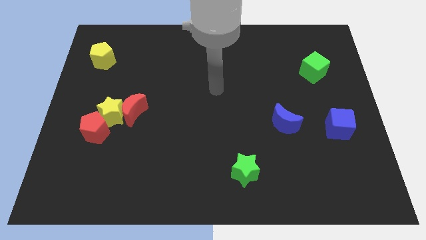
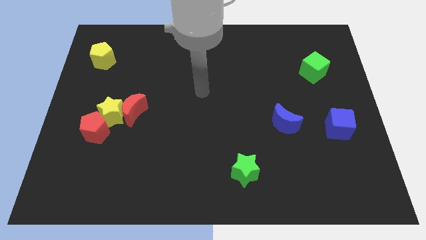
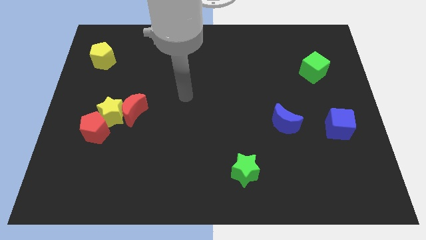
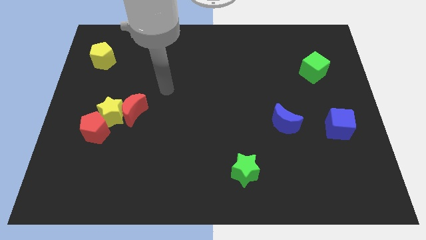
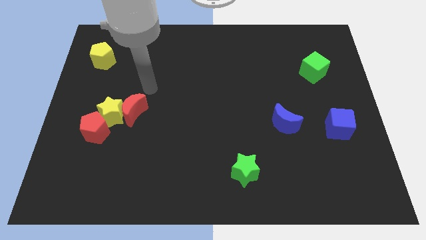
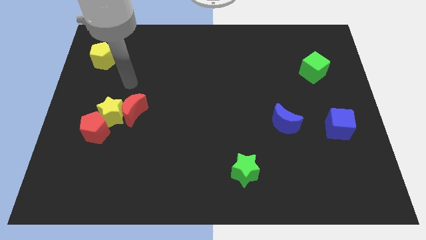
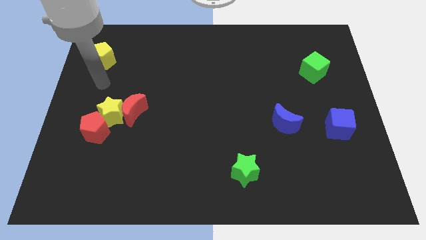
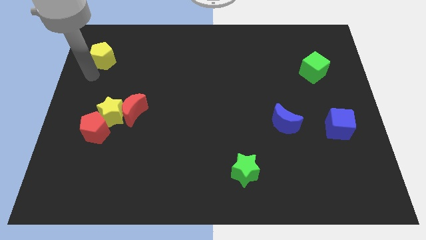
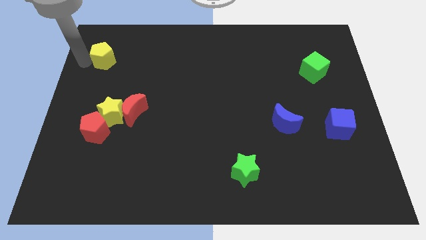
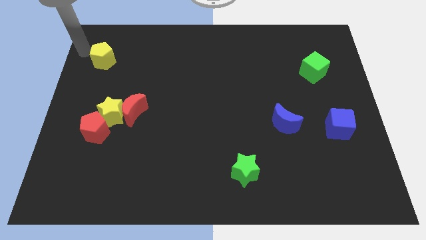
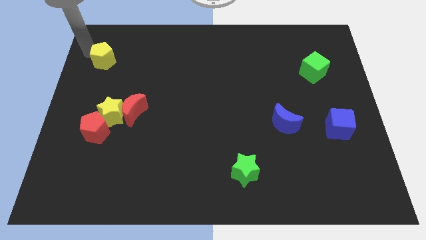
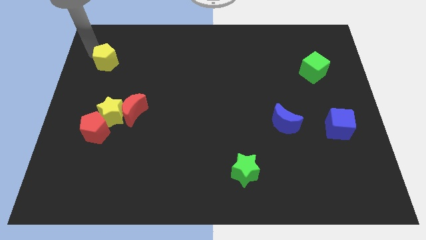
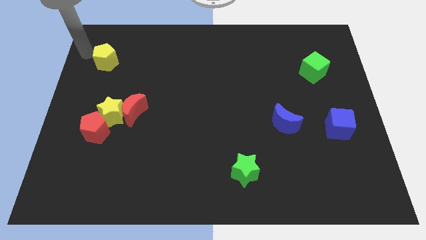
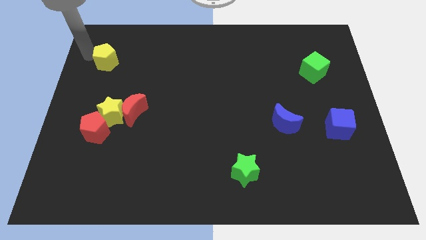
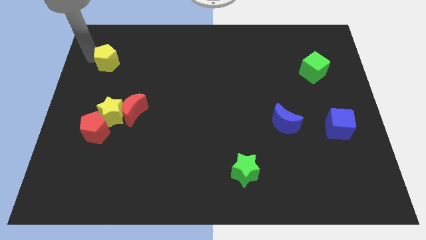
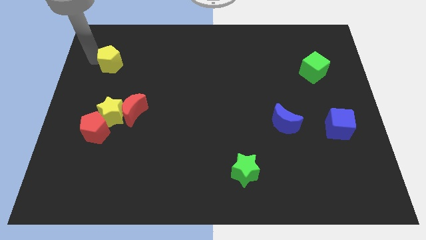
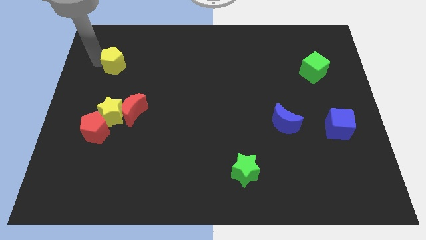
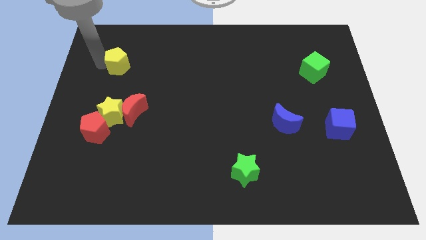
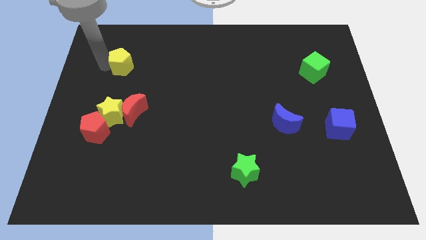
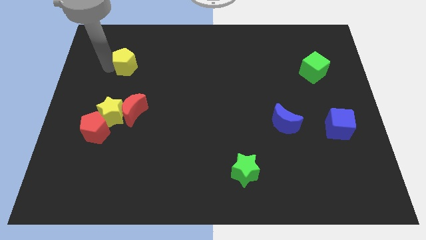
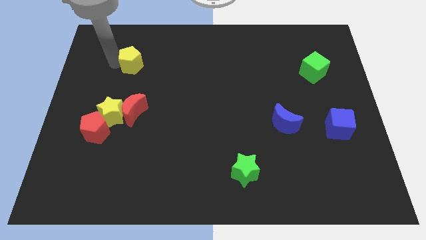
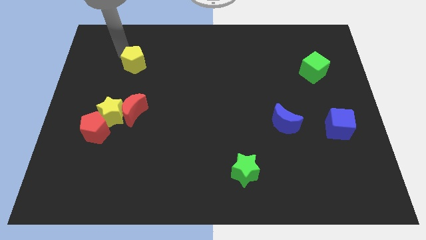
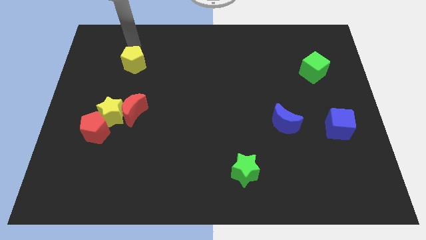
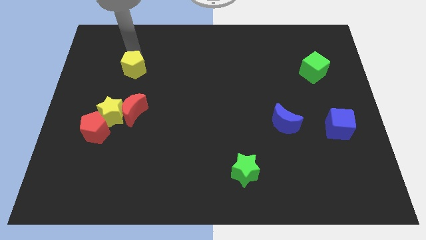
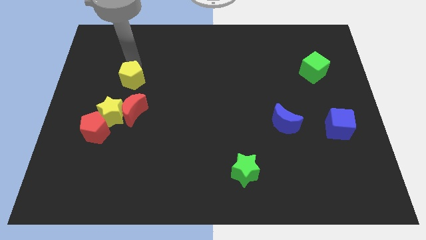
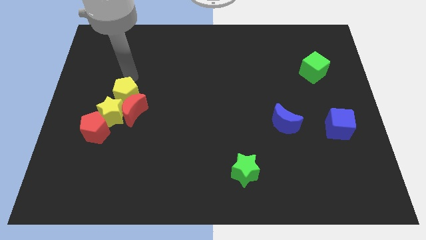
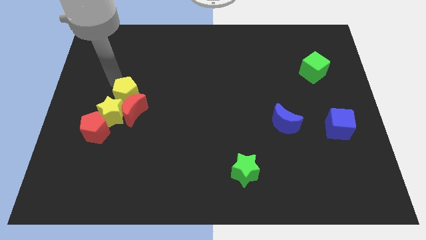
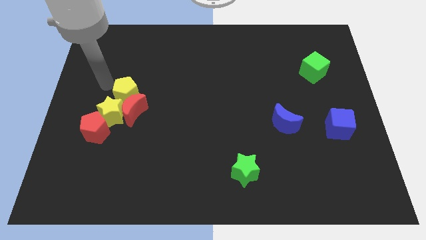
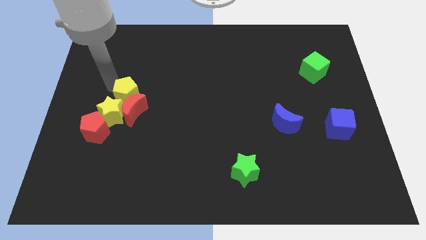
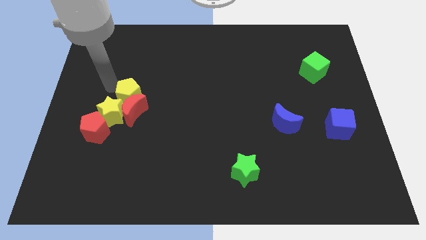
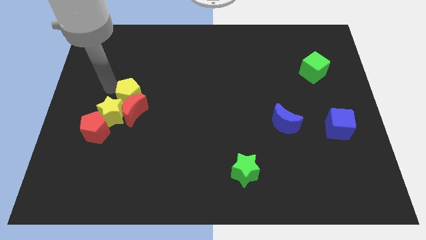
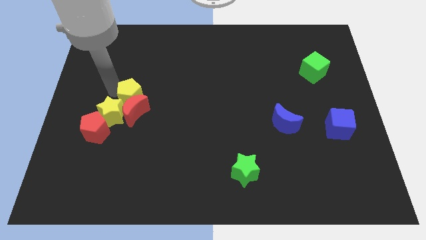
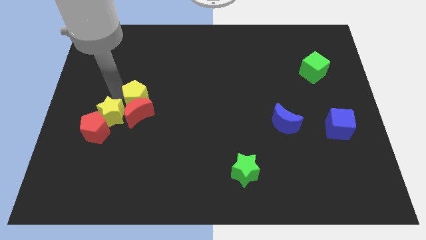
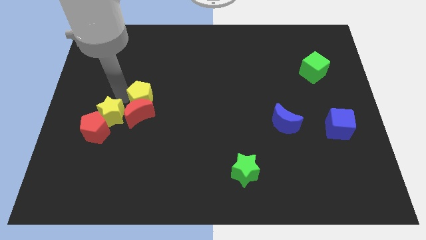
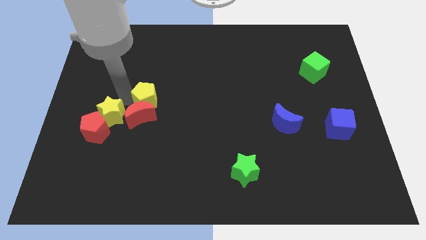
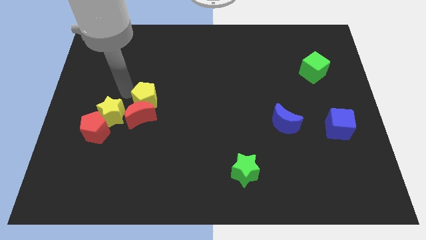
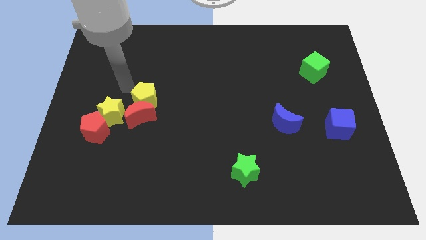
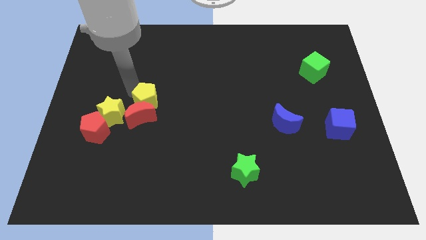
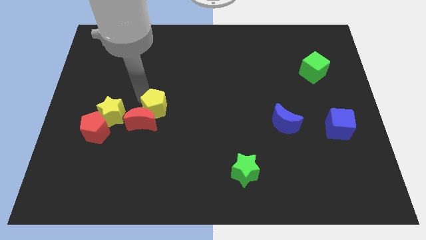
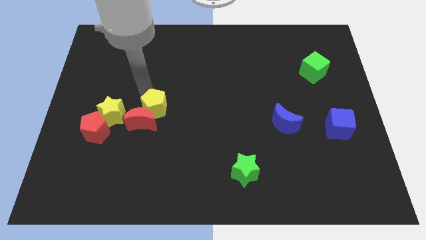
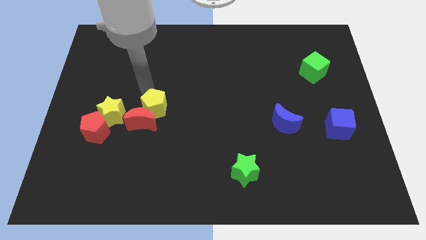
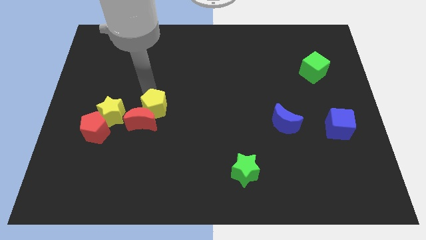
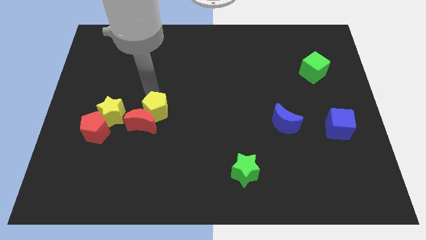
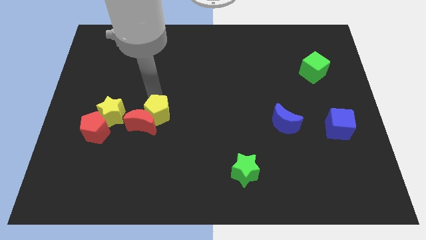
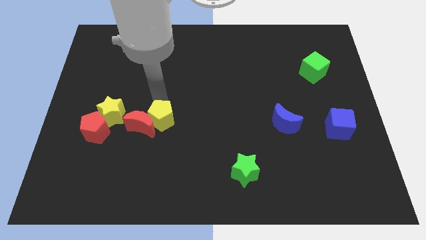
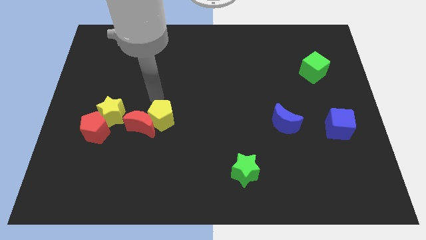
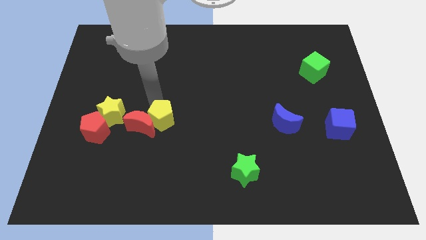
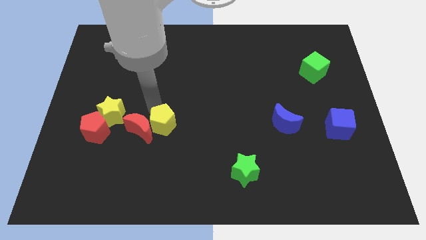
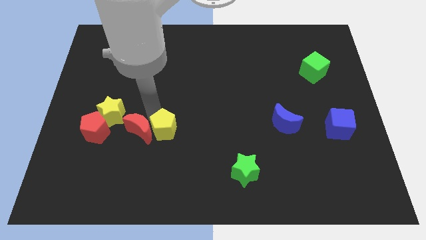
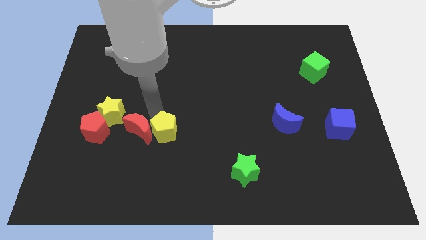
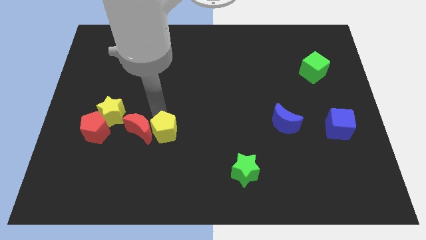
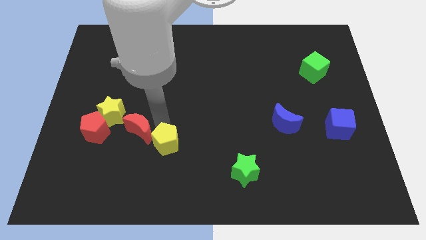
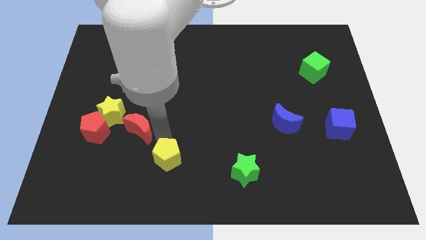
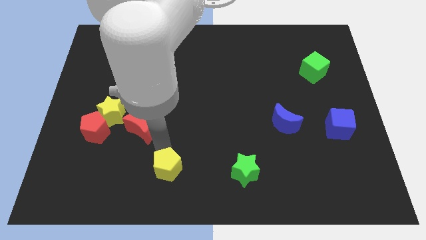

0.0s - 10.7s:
put the yellow pentagon to the bottom side

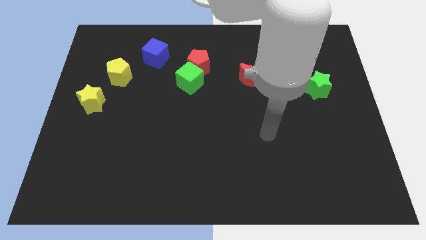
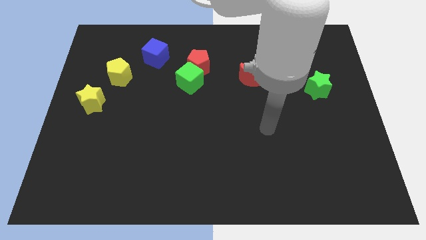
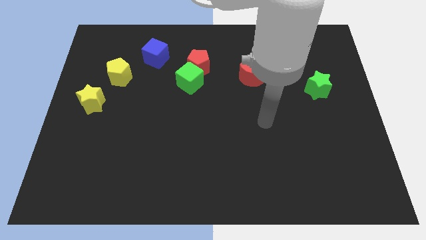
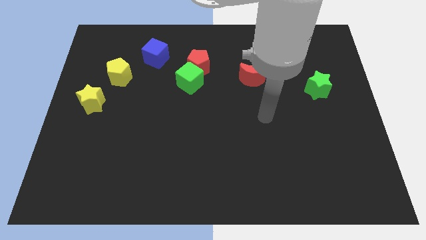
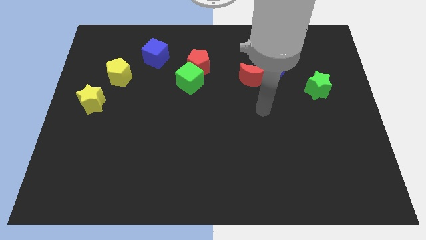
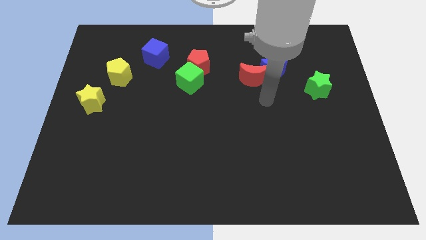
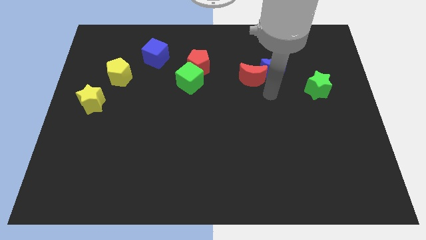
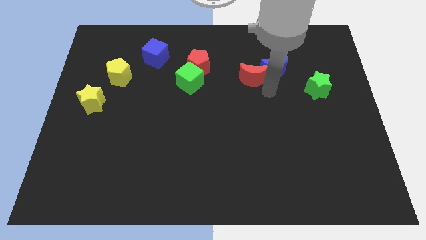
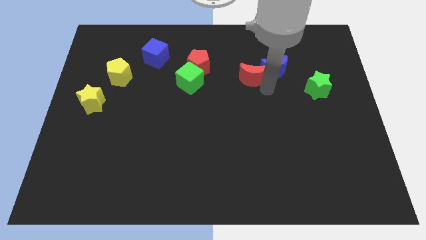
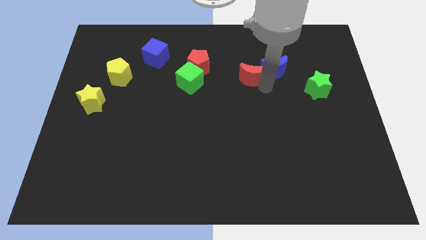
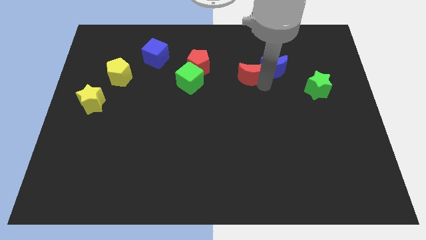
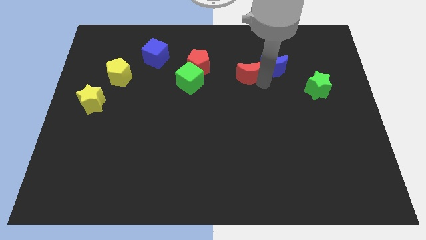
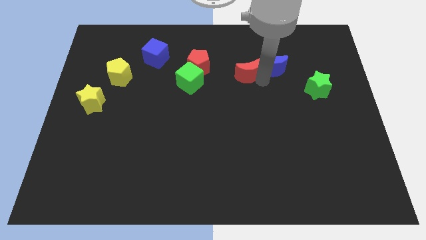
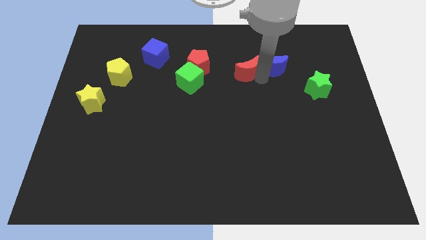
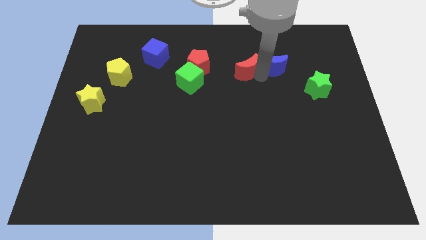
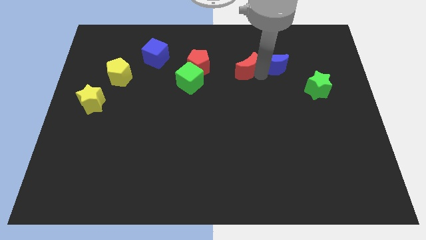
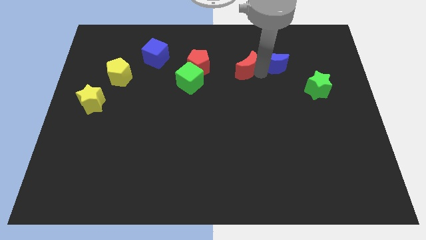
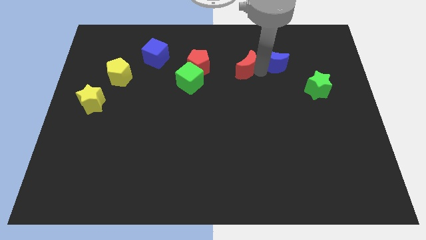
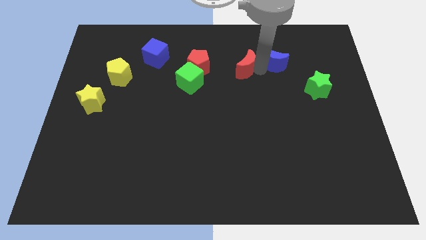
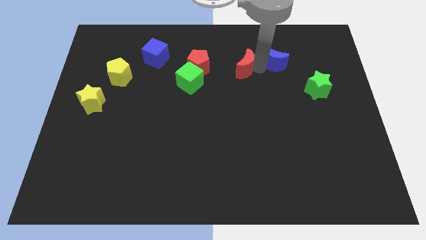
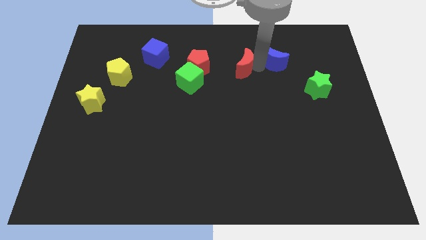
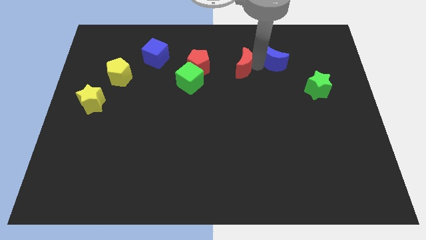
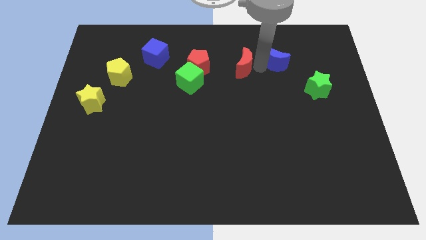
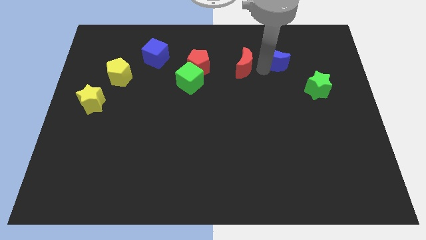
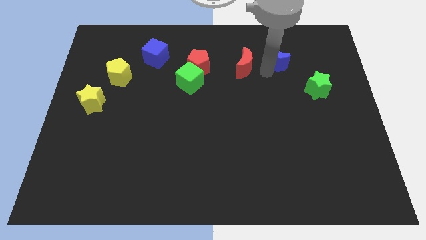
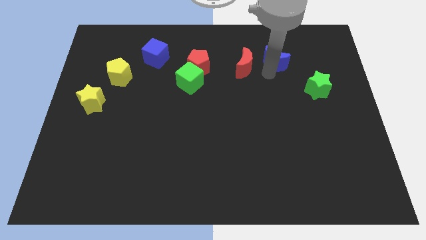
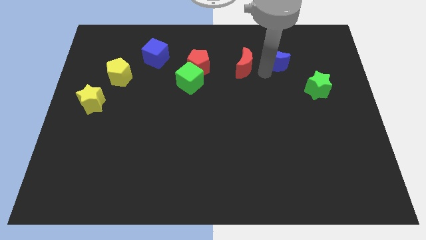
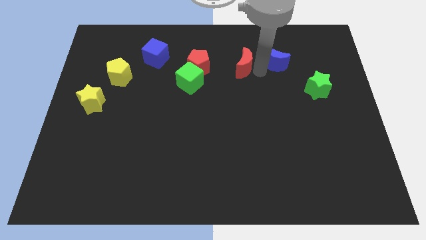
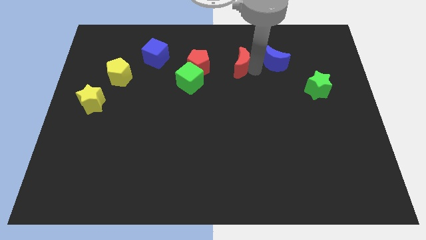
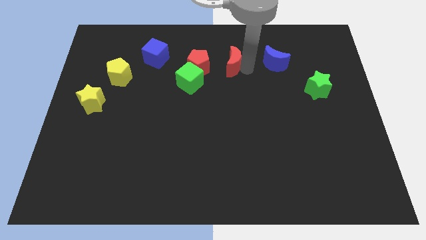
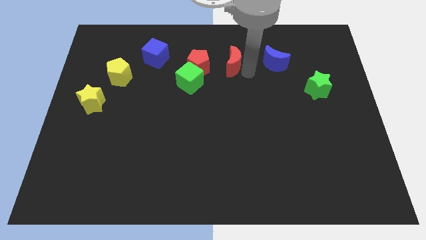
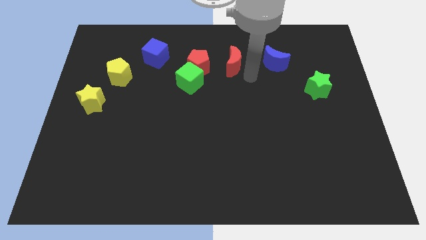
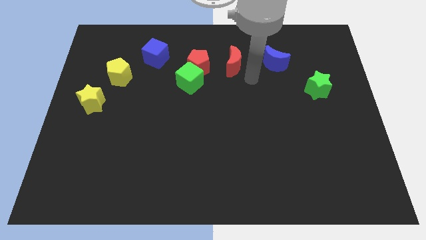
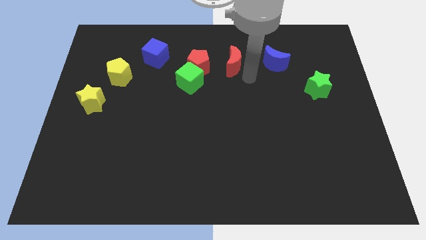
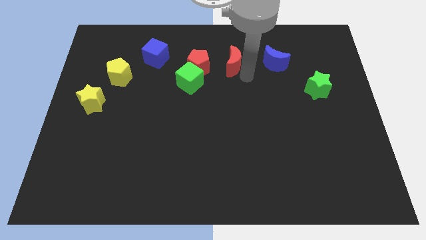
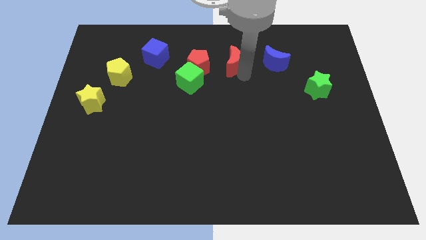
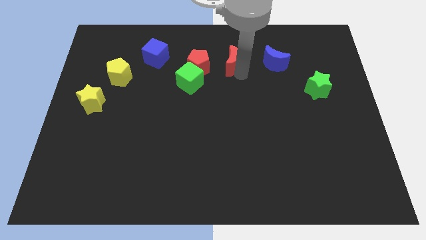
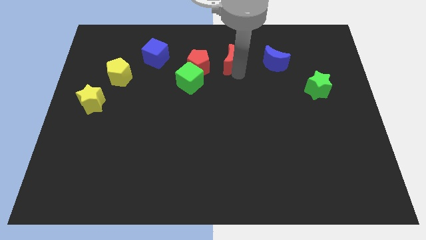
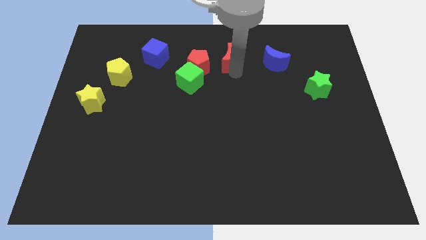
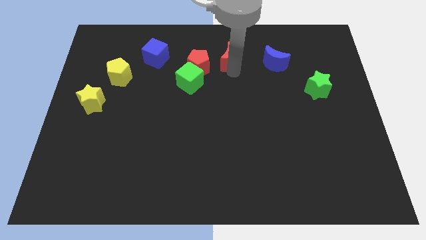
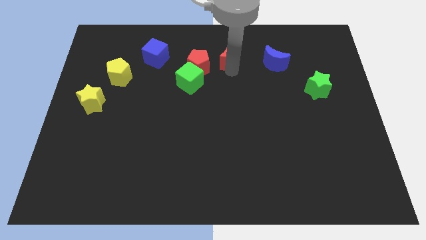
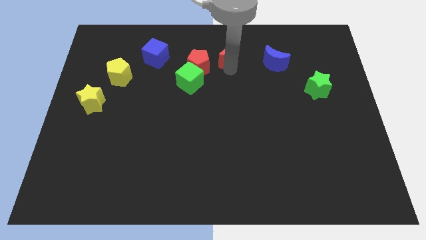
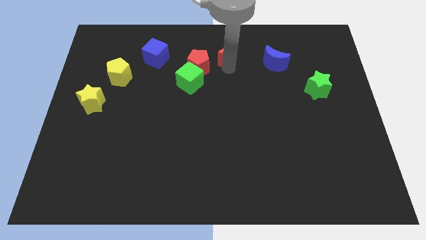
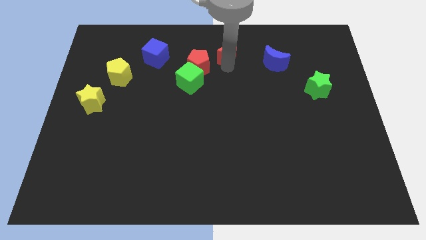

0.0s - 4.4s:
slide the red moon to the top
